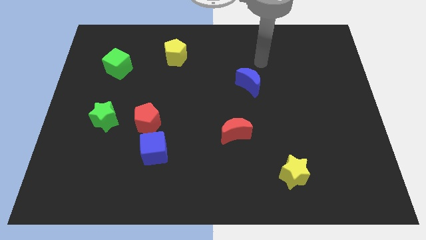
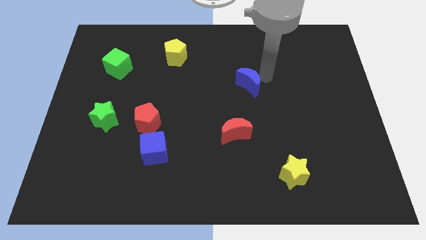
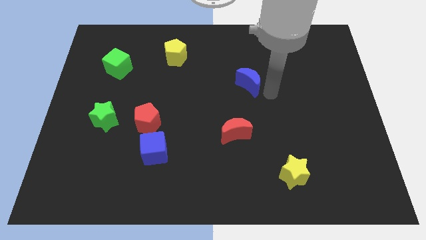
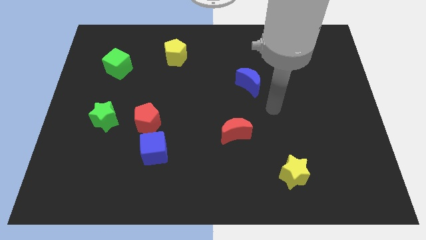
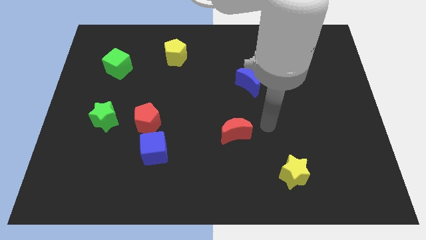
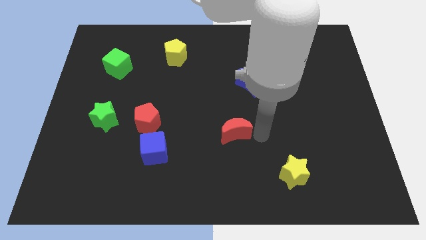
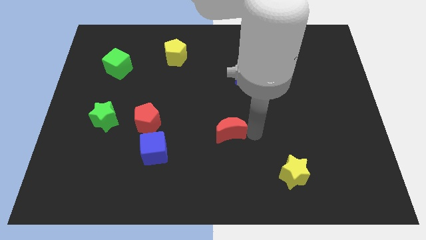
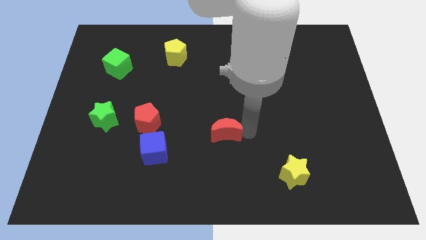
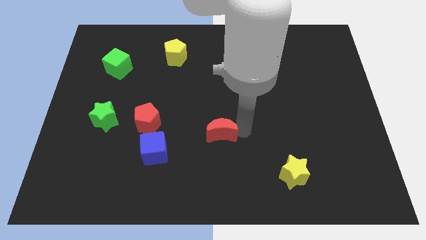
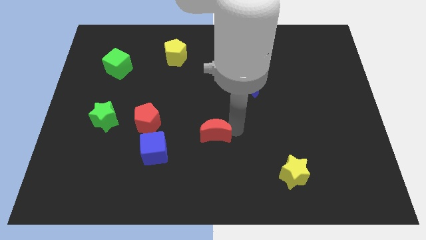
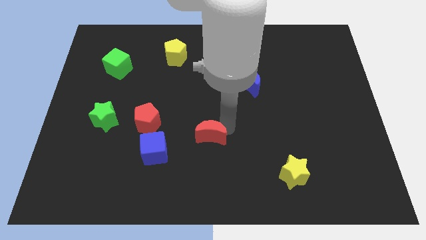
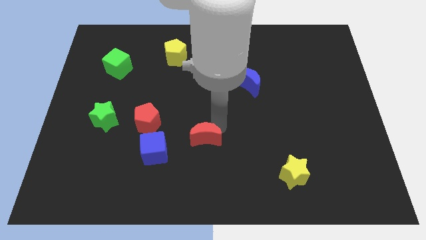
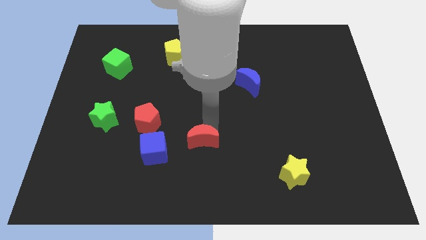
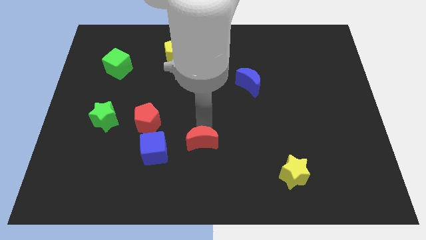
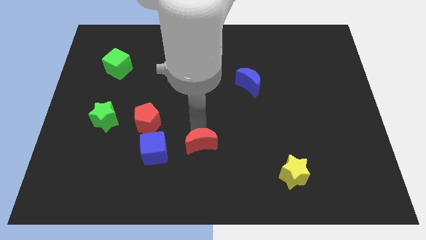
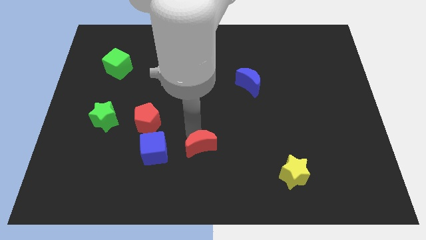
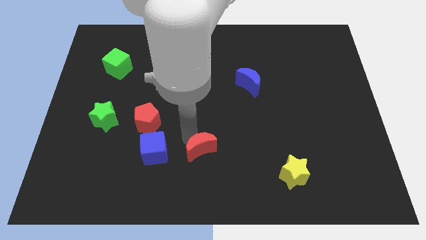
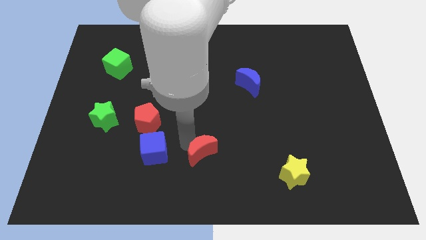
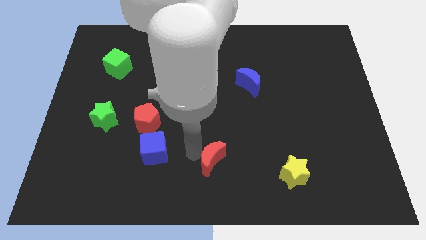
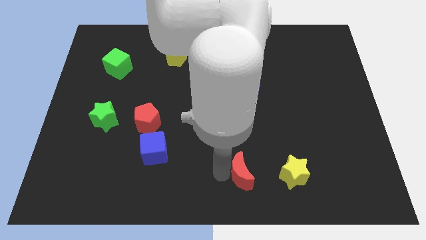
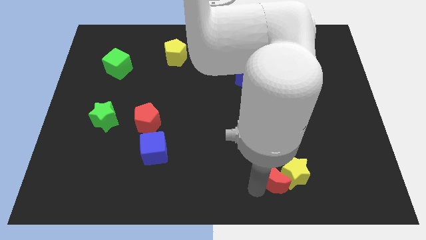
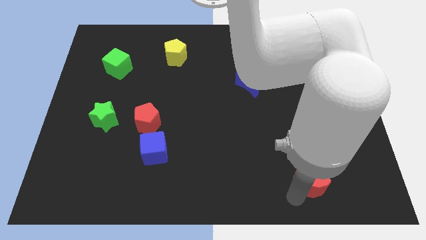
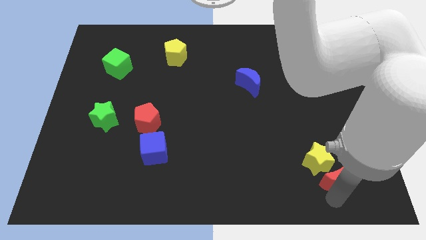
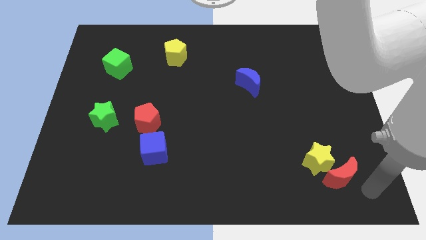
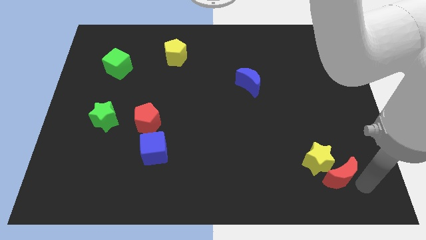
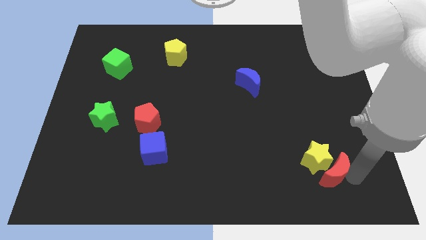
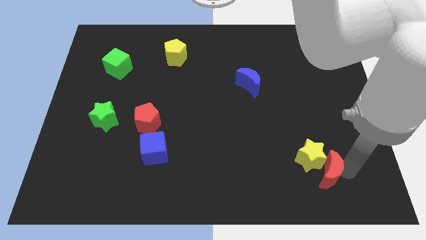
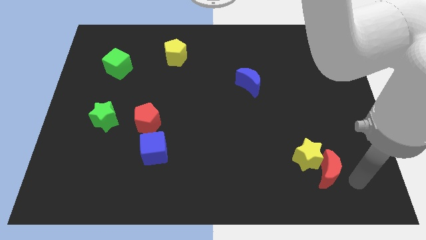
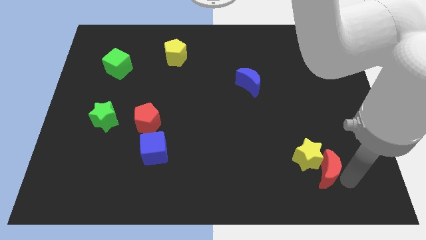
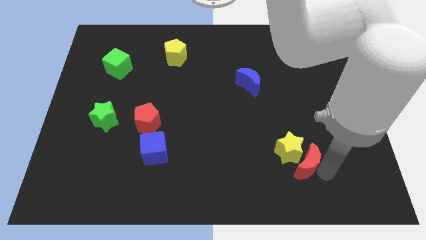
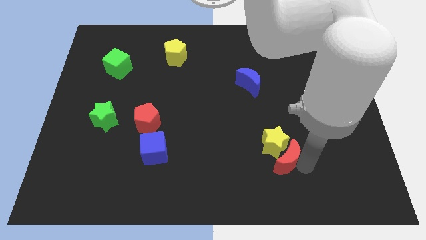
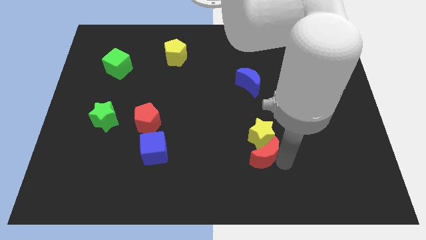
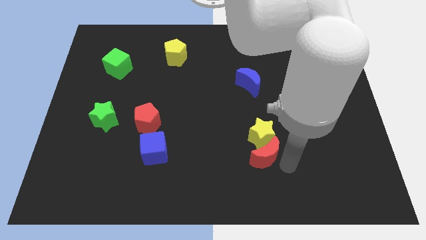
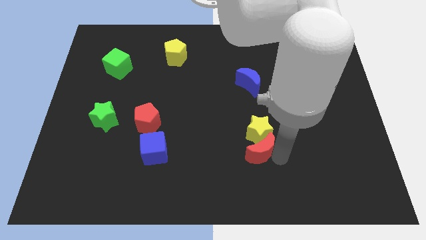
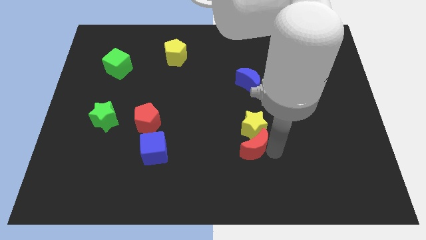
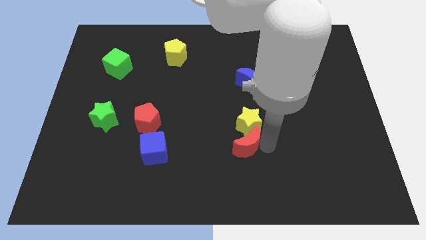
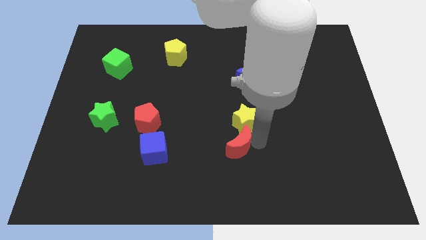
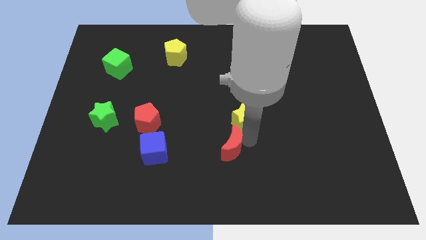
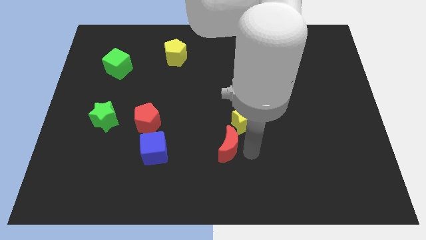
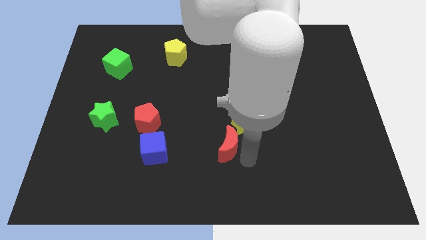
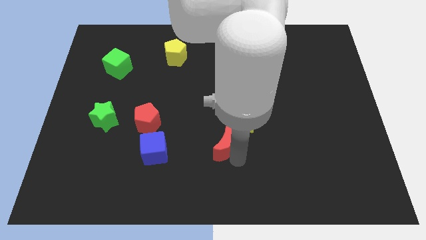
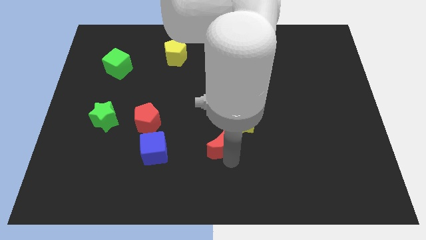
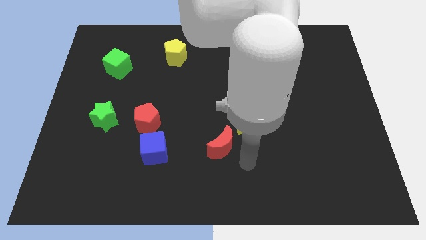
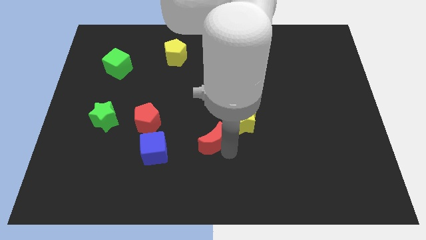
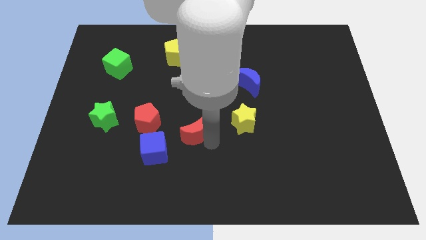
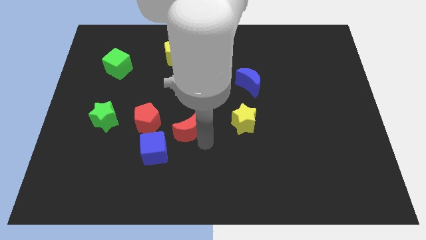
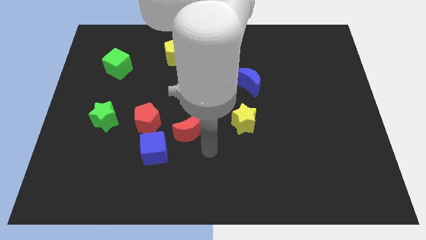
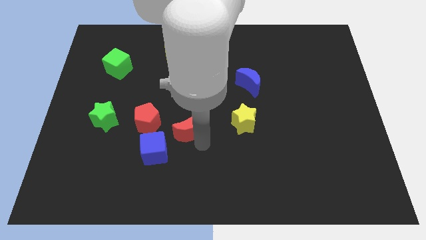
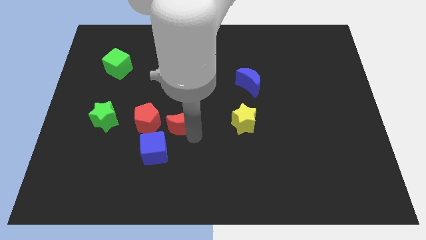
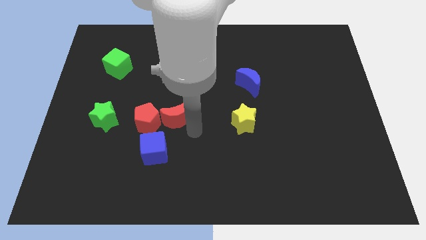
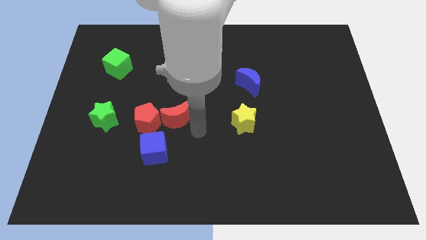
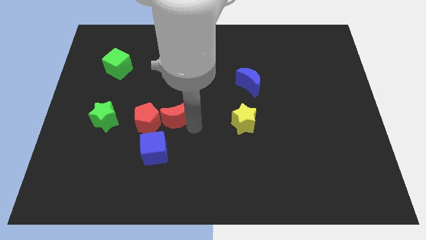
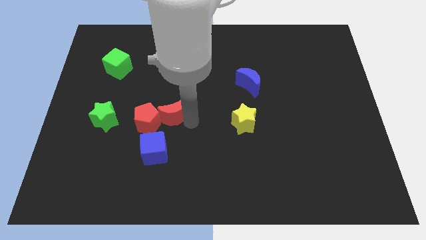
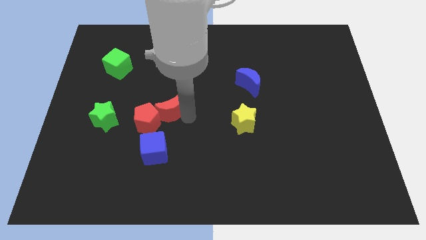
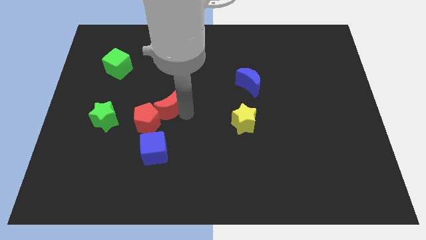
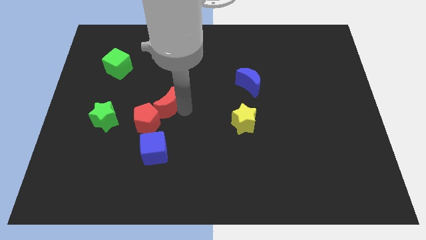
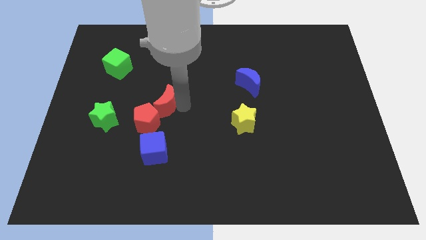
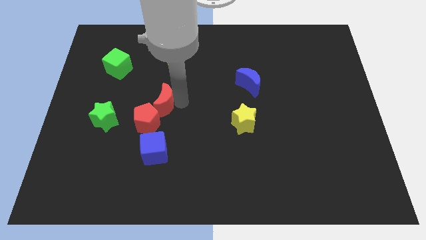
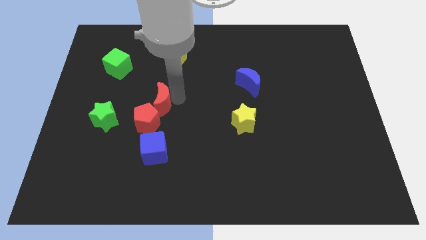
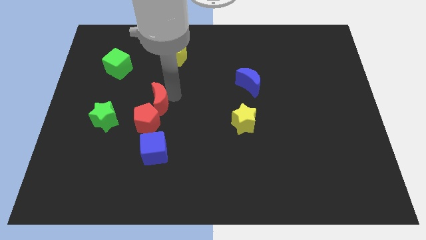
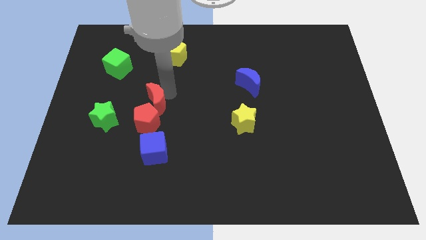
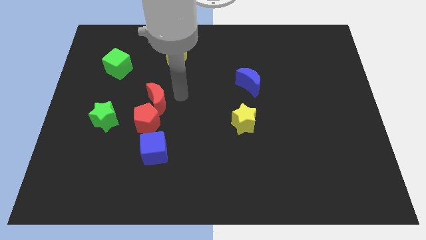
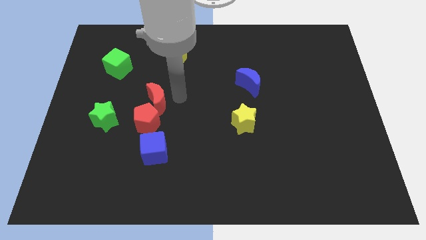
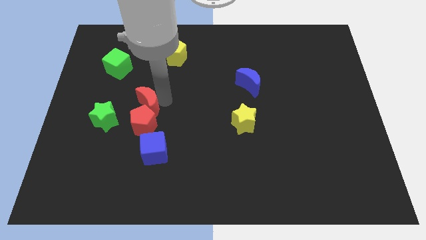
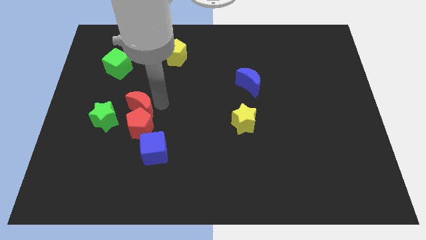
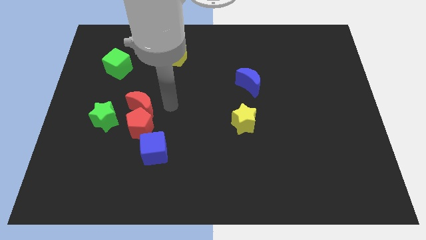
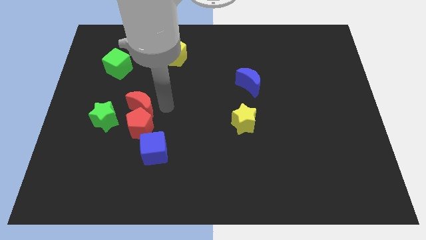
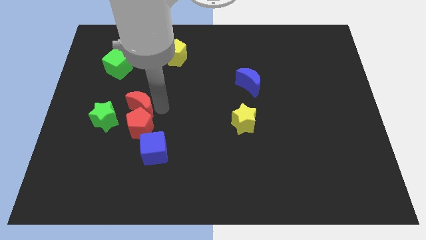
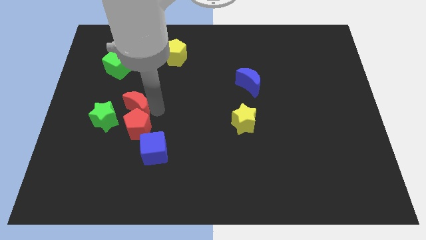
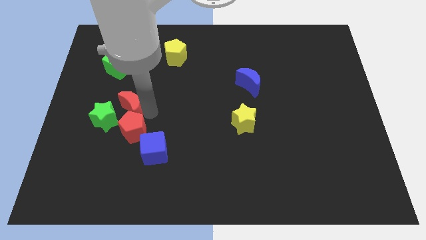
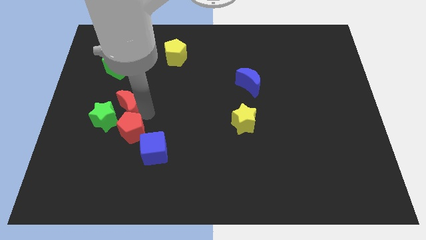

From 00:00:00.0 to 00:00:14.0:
put the red moon next to the green star

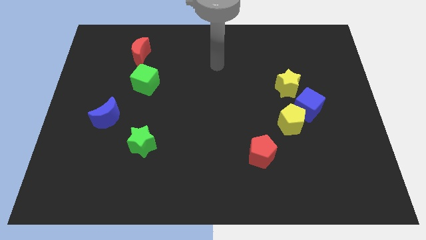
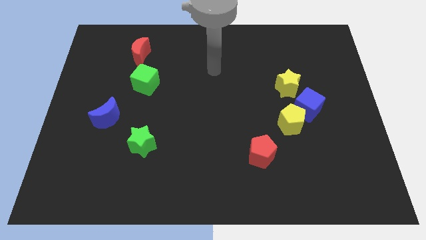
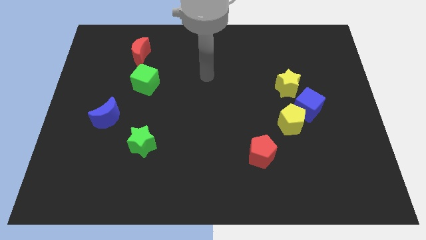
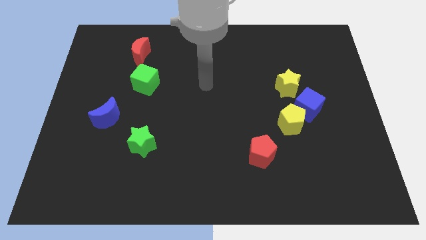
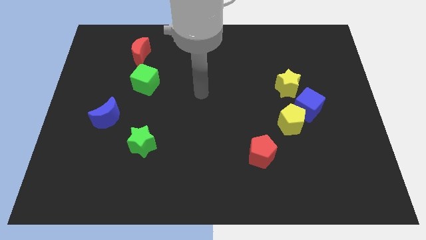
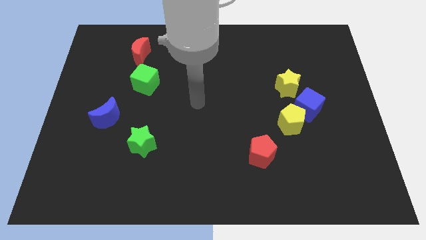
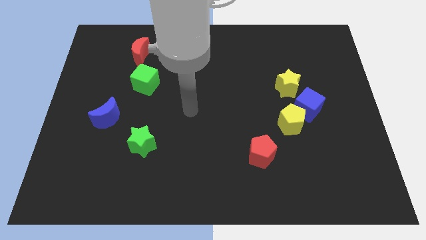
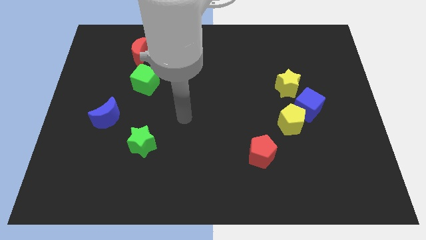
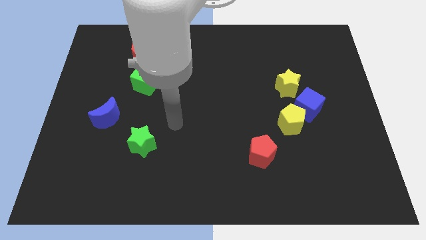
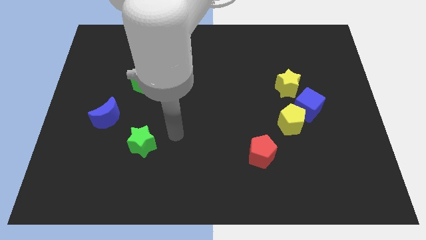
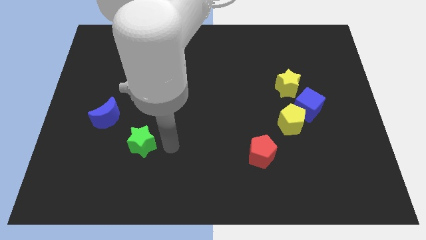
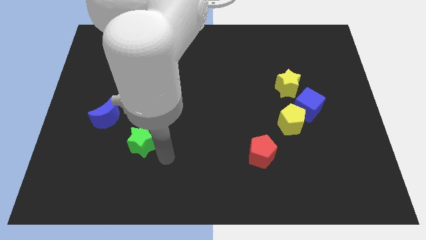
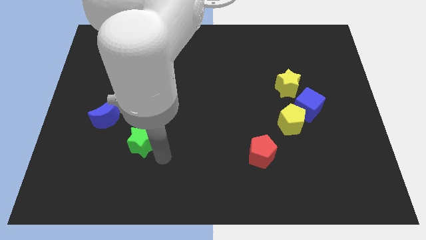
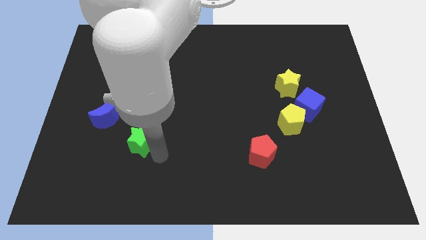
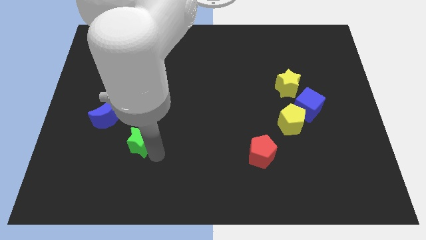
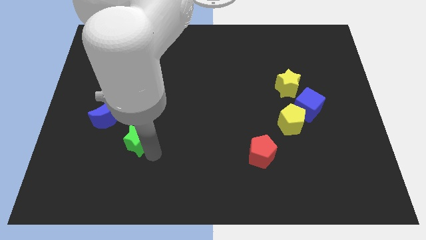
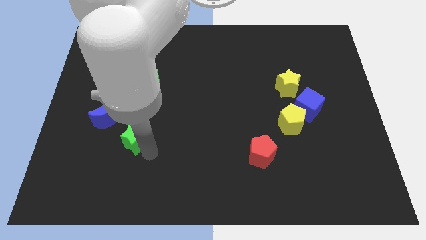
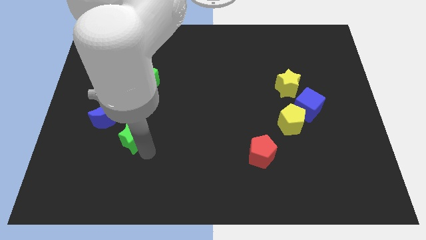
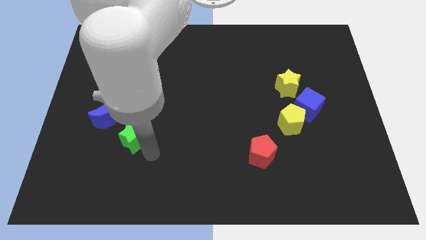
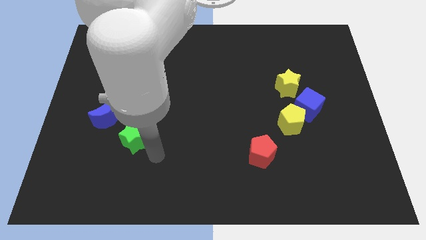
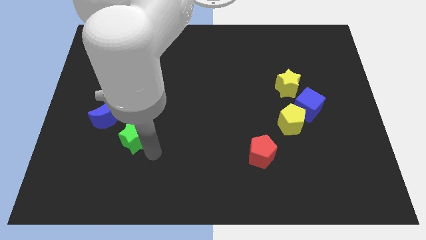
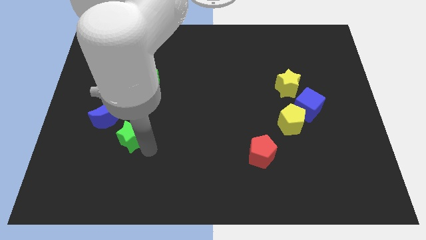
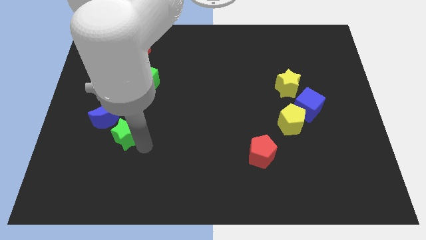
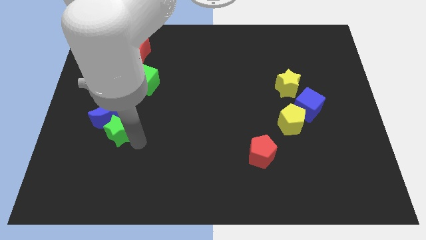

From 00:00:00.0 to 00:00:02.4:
slide the green star to the blue moon
